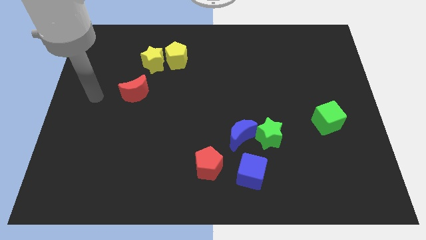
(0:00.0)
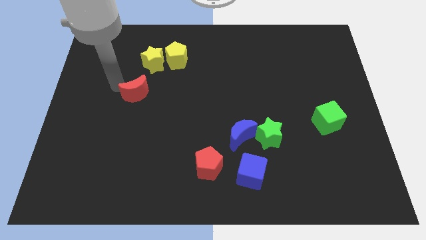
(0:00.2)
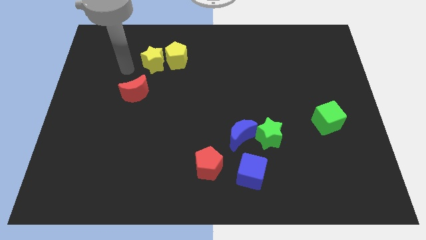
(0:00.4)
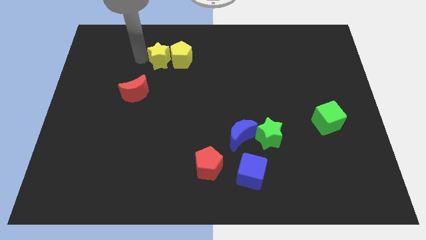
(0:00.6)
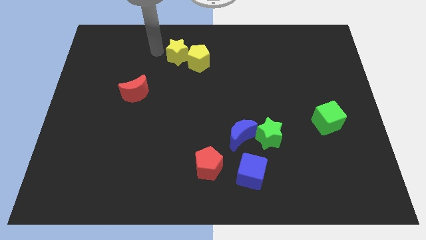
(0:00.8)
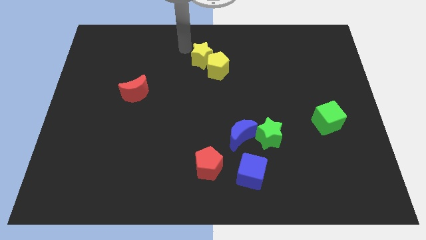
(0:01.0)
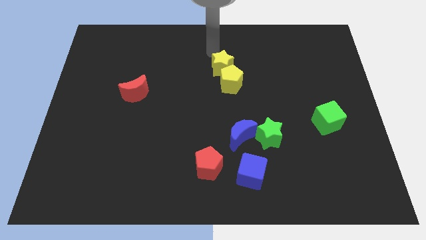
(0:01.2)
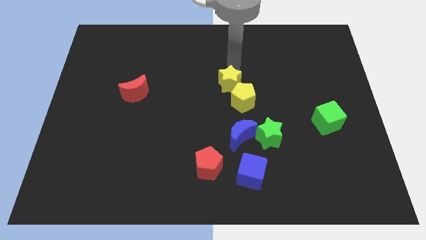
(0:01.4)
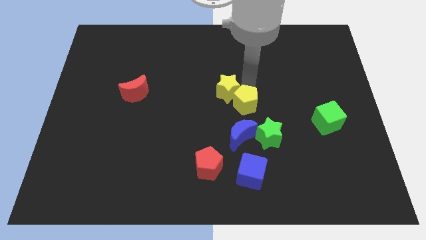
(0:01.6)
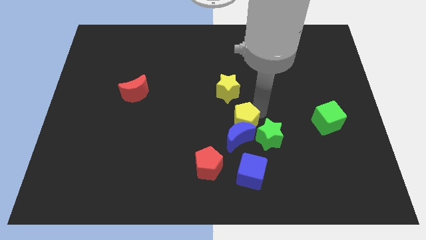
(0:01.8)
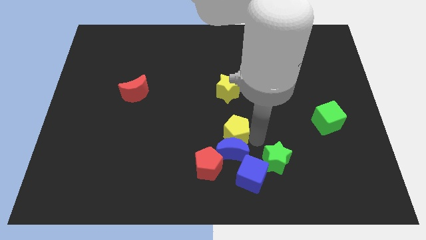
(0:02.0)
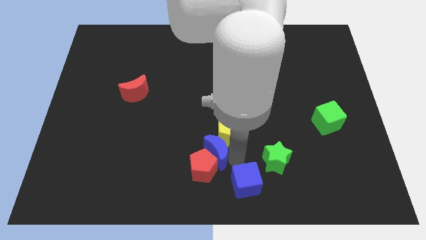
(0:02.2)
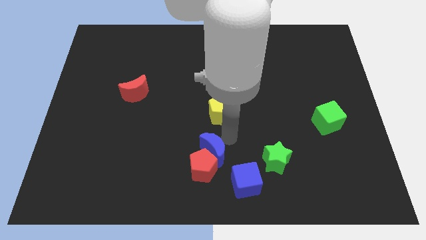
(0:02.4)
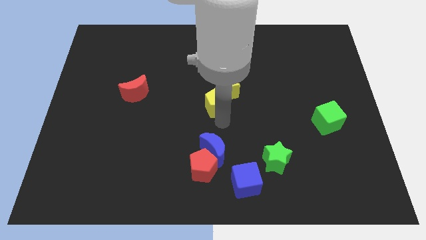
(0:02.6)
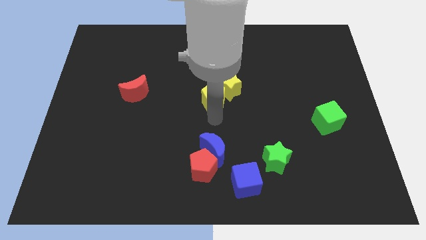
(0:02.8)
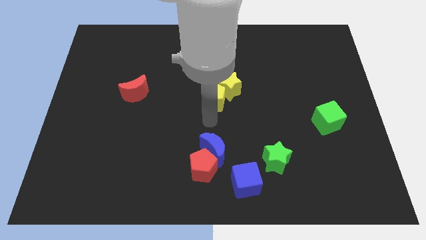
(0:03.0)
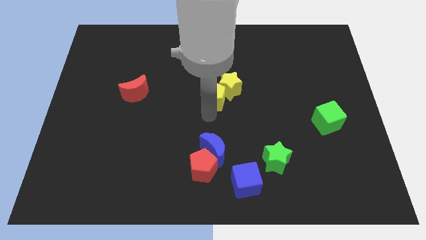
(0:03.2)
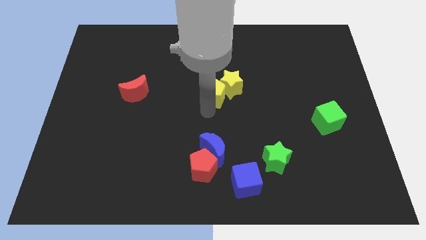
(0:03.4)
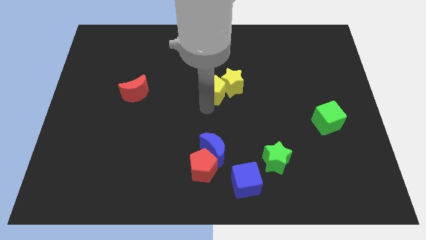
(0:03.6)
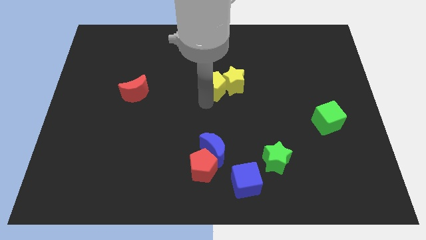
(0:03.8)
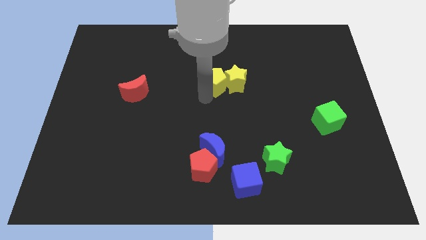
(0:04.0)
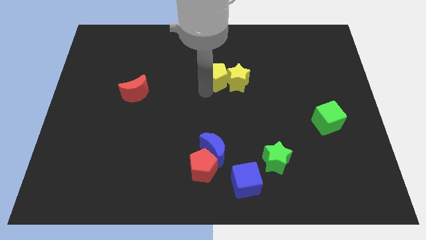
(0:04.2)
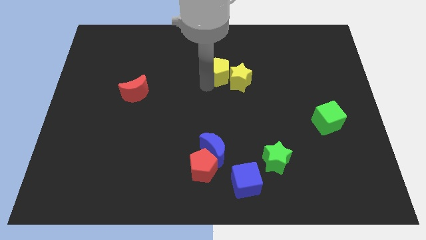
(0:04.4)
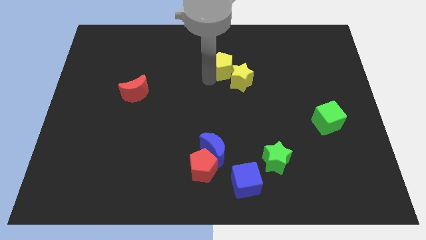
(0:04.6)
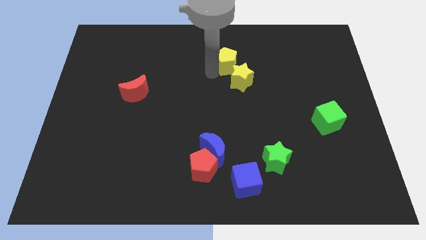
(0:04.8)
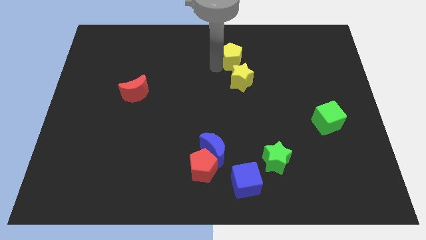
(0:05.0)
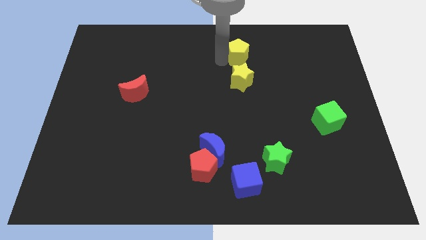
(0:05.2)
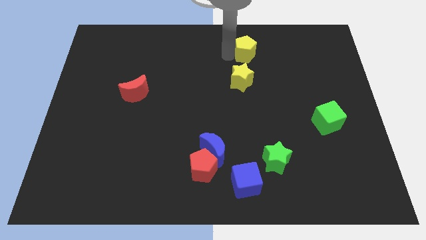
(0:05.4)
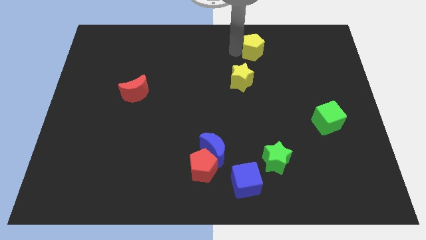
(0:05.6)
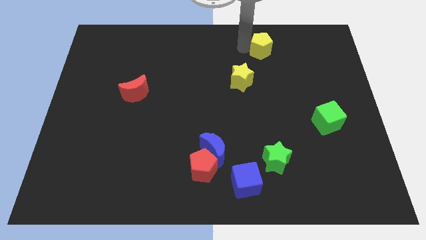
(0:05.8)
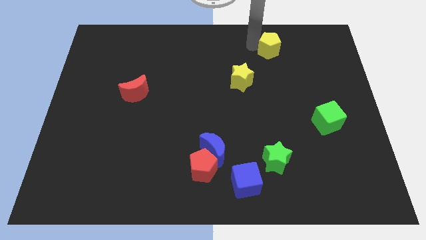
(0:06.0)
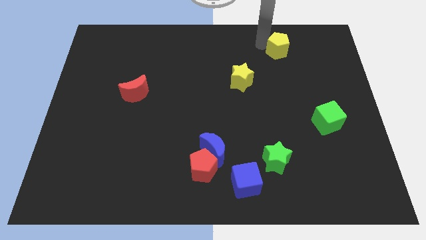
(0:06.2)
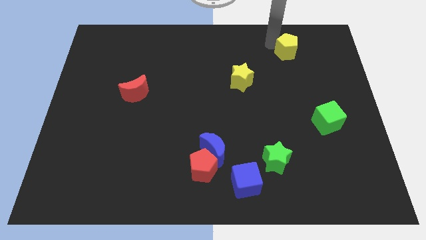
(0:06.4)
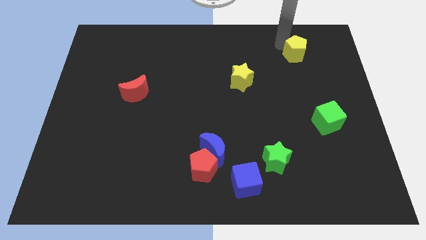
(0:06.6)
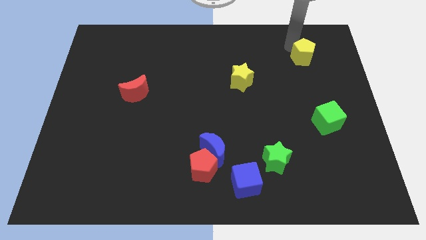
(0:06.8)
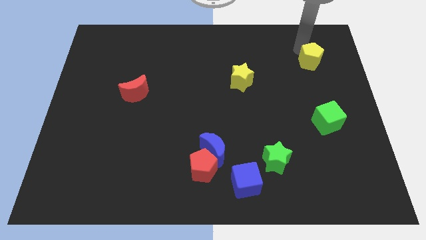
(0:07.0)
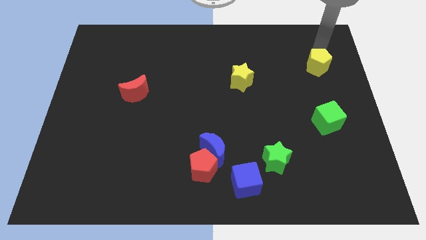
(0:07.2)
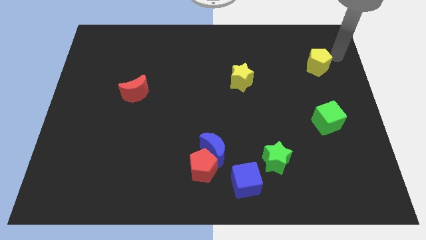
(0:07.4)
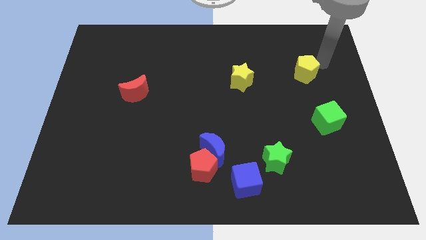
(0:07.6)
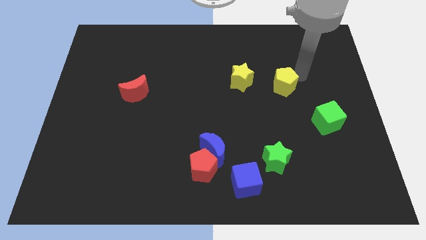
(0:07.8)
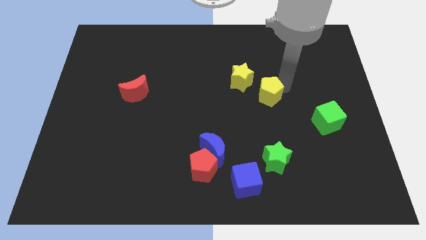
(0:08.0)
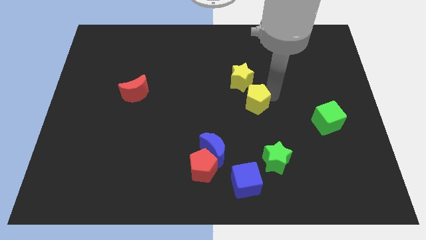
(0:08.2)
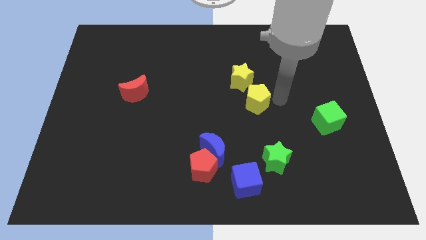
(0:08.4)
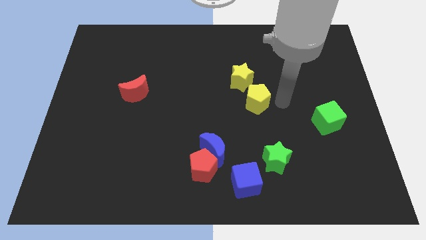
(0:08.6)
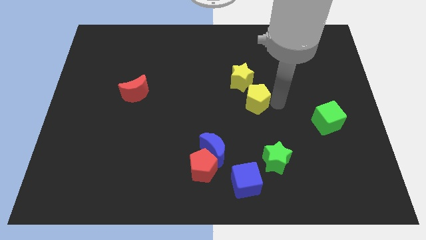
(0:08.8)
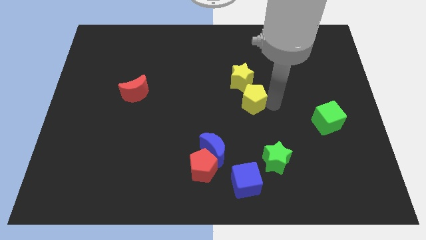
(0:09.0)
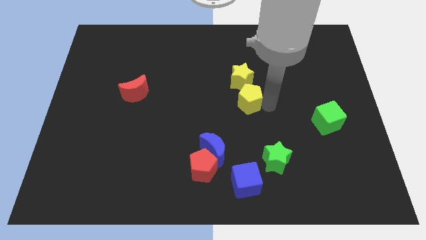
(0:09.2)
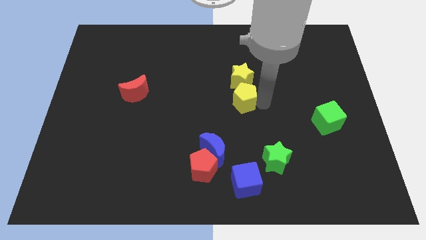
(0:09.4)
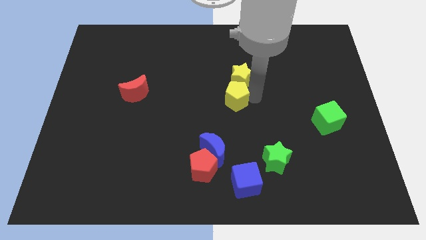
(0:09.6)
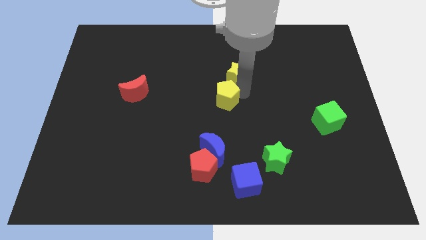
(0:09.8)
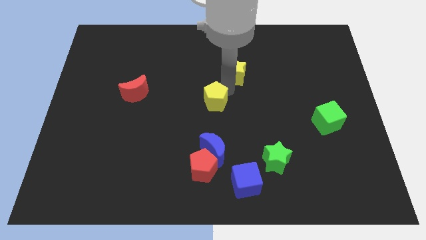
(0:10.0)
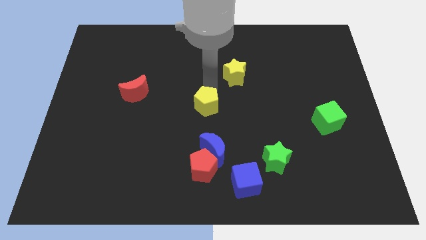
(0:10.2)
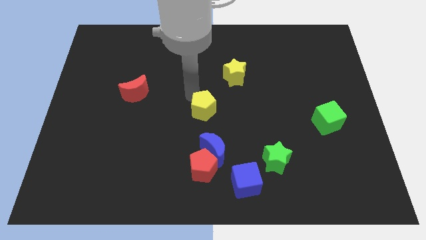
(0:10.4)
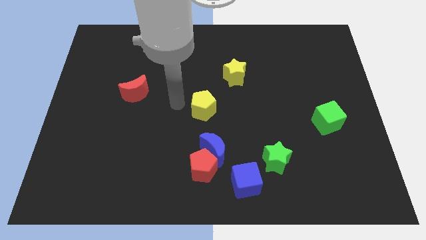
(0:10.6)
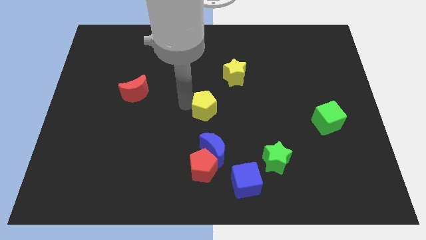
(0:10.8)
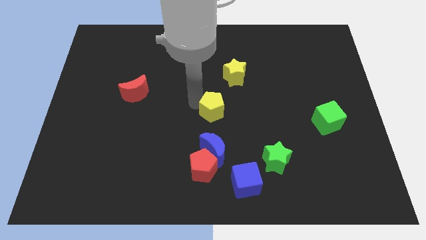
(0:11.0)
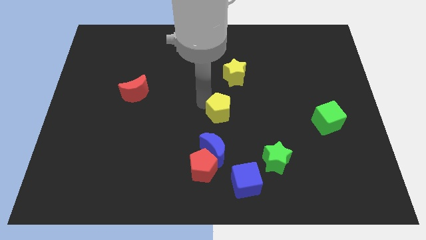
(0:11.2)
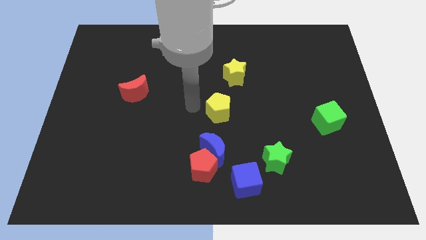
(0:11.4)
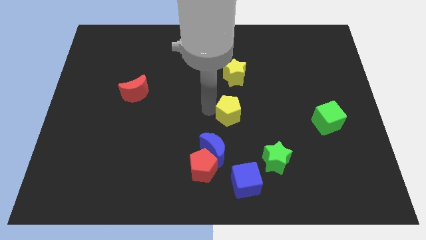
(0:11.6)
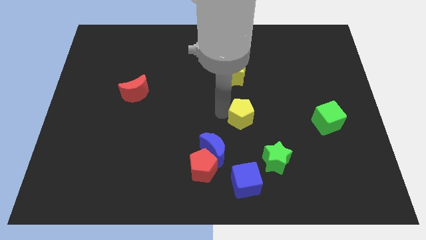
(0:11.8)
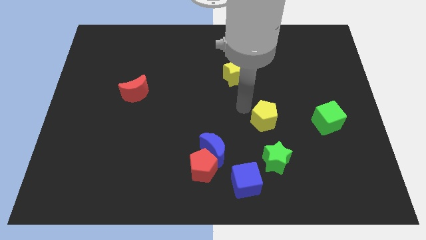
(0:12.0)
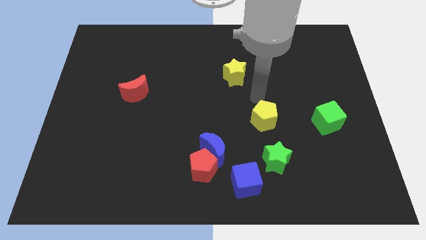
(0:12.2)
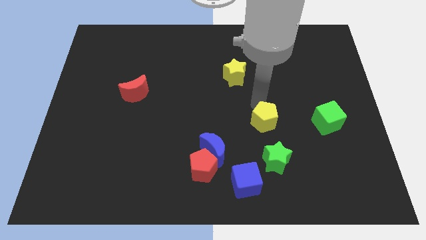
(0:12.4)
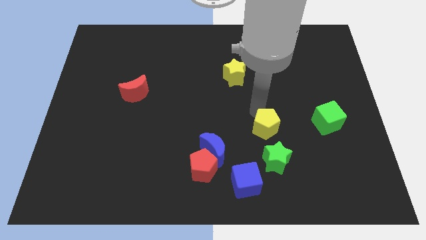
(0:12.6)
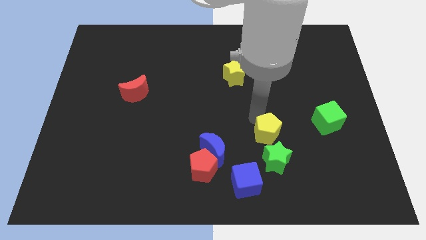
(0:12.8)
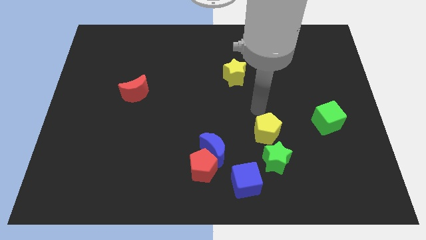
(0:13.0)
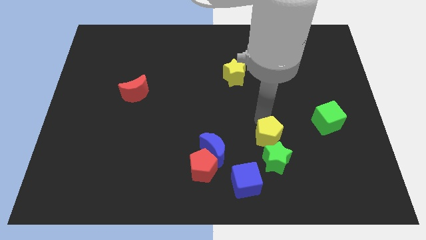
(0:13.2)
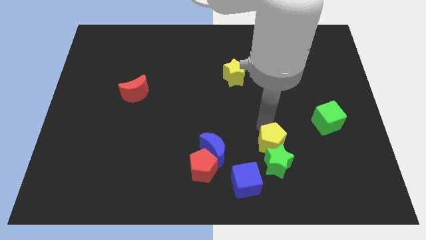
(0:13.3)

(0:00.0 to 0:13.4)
move the yellow pentagon towards the green star

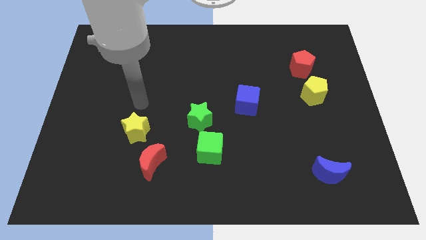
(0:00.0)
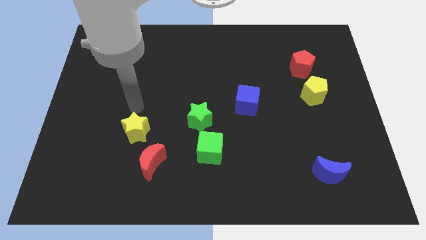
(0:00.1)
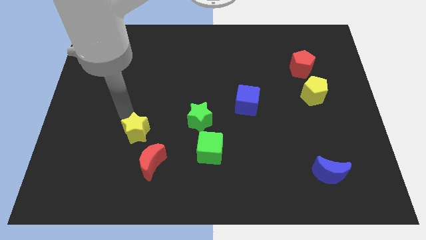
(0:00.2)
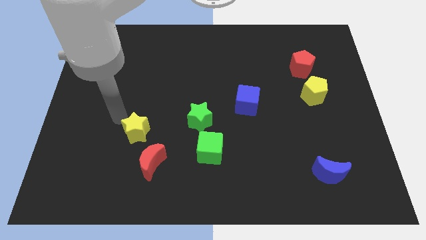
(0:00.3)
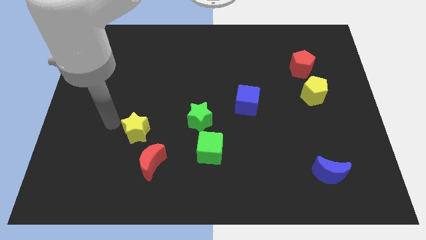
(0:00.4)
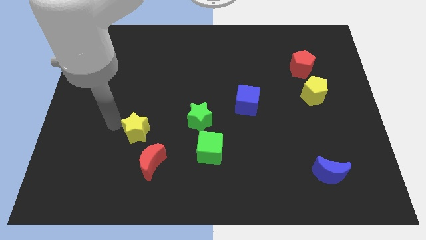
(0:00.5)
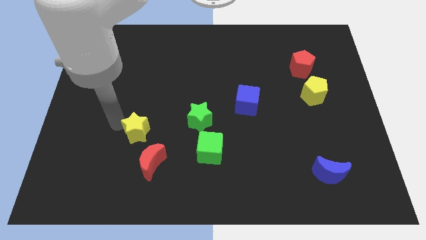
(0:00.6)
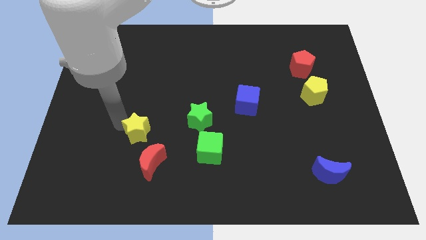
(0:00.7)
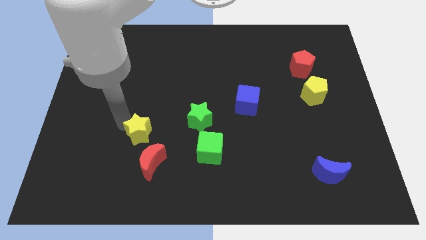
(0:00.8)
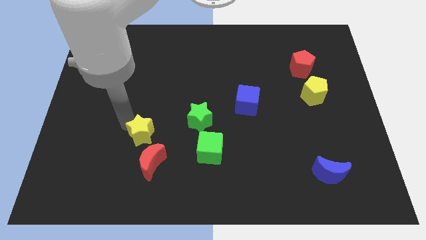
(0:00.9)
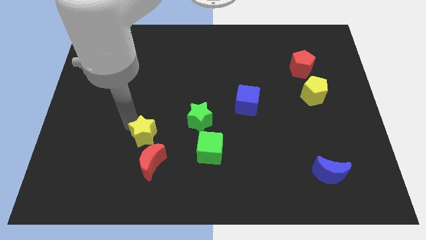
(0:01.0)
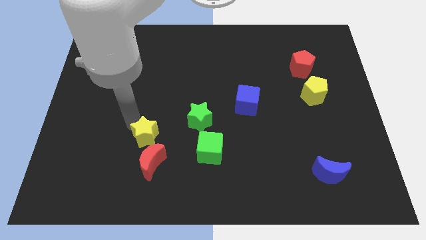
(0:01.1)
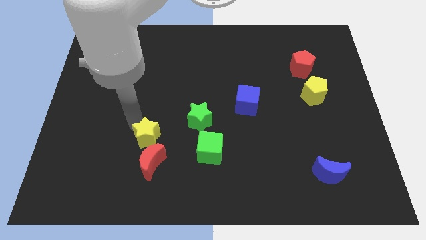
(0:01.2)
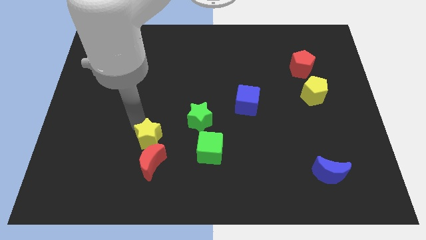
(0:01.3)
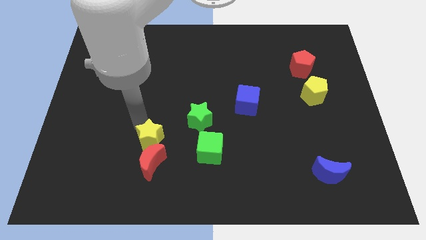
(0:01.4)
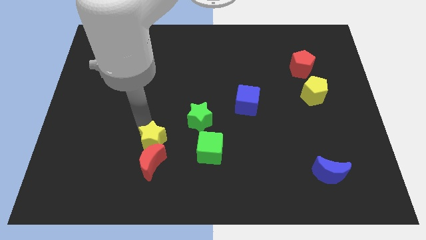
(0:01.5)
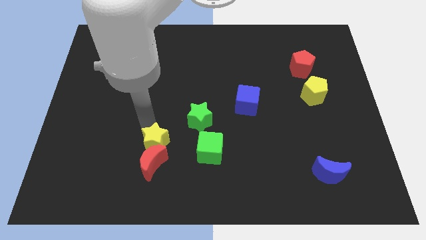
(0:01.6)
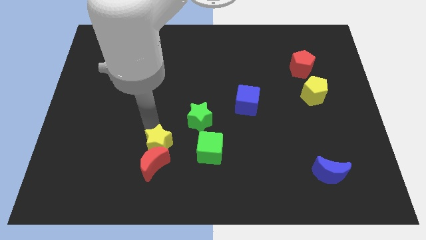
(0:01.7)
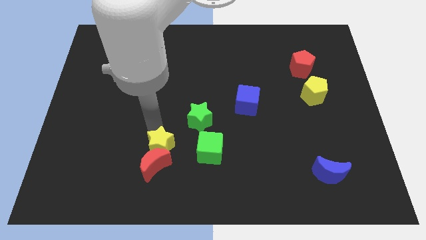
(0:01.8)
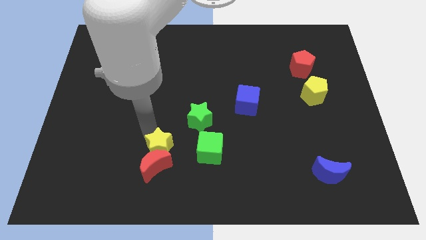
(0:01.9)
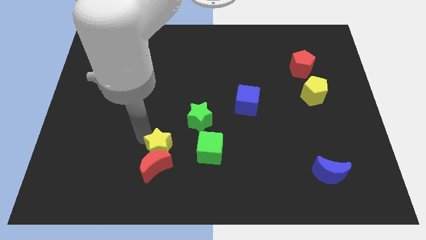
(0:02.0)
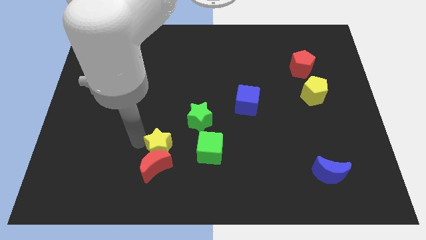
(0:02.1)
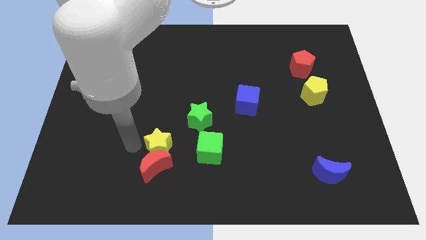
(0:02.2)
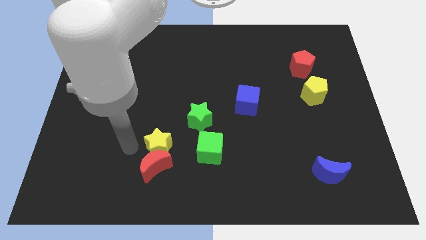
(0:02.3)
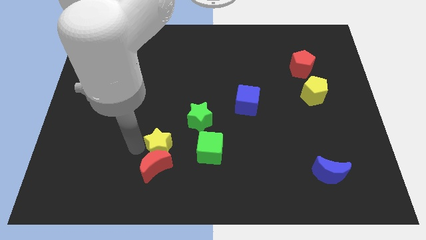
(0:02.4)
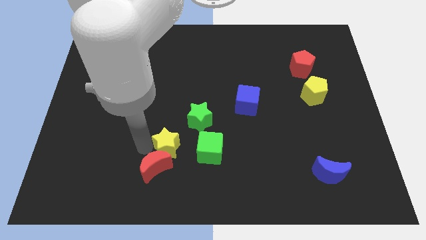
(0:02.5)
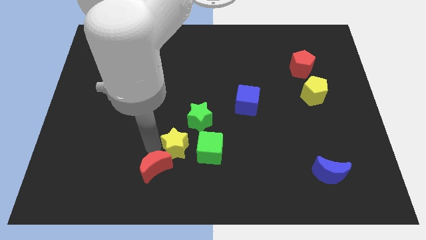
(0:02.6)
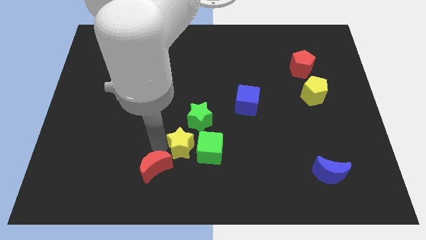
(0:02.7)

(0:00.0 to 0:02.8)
slide the yellow star next to the green cube
